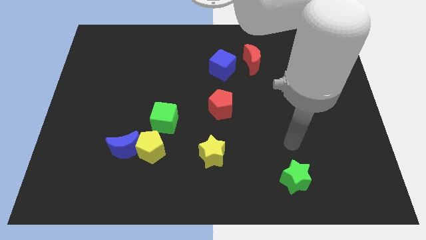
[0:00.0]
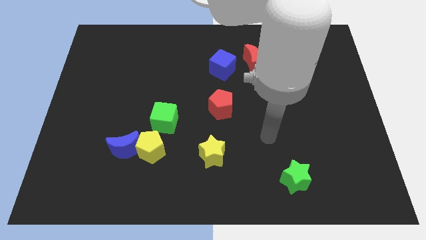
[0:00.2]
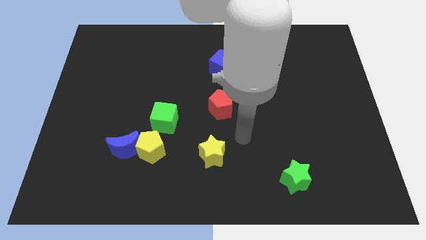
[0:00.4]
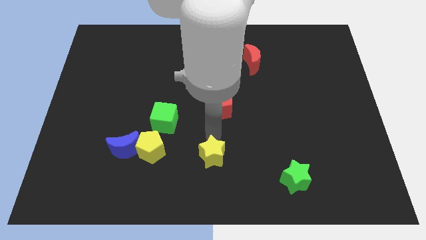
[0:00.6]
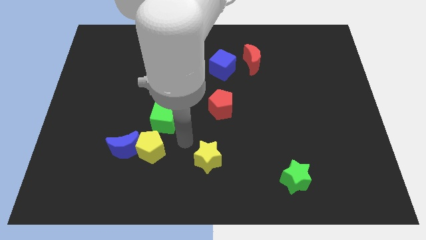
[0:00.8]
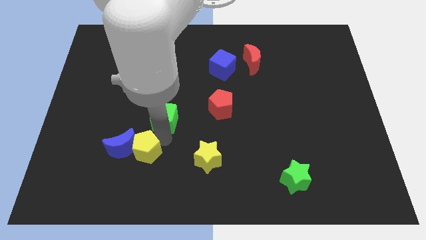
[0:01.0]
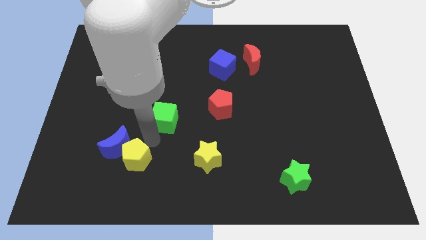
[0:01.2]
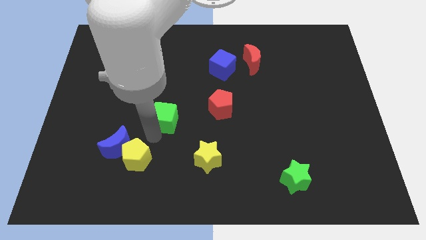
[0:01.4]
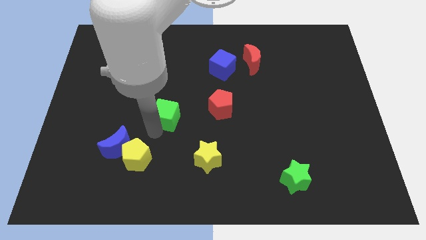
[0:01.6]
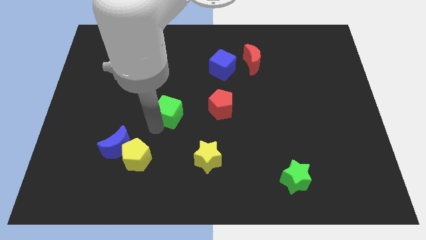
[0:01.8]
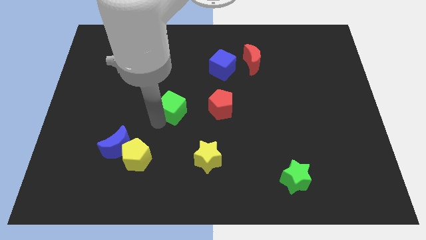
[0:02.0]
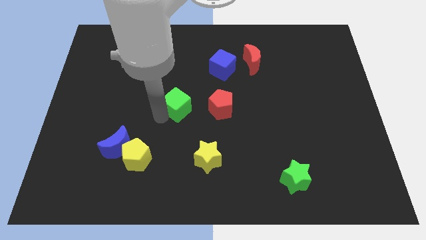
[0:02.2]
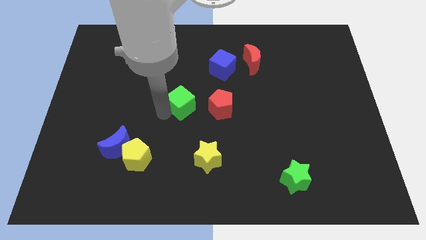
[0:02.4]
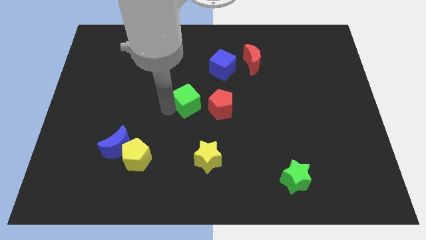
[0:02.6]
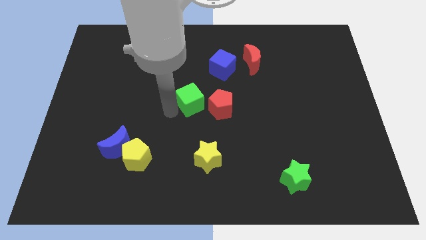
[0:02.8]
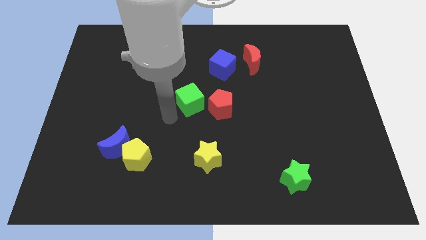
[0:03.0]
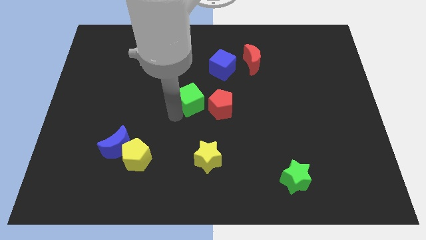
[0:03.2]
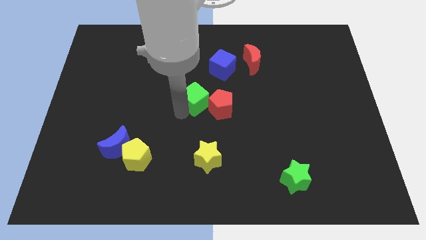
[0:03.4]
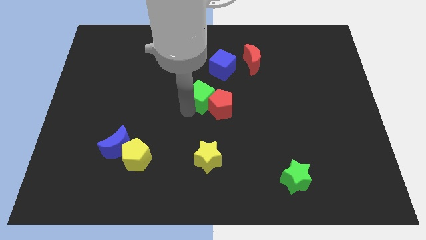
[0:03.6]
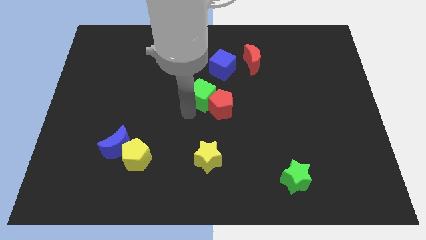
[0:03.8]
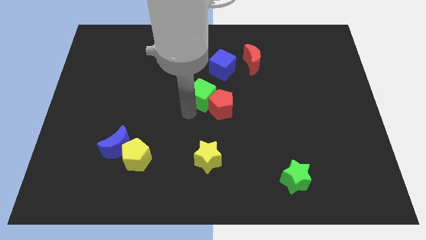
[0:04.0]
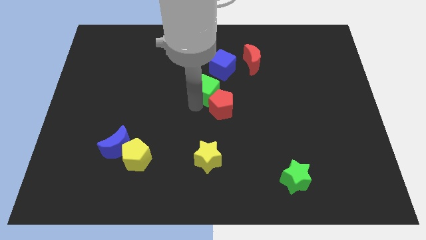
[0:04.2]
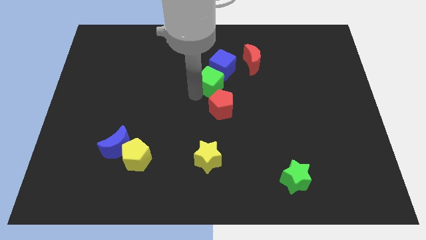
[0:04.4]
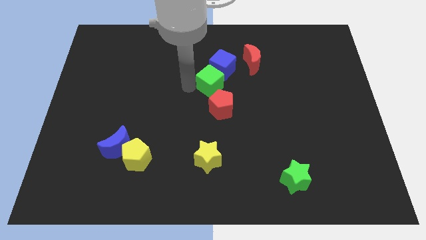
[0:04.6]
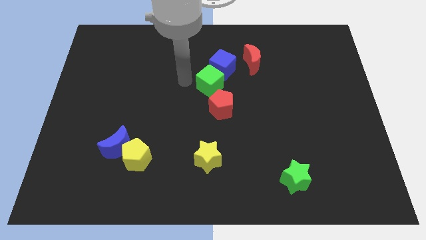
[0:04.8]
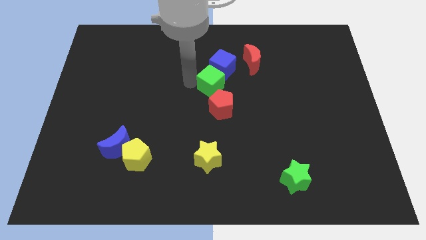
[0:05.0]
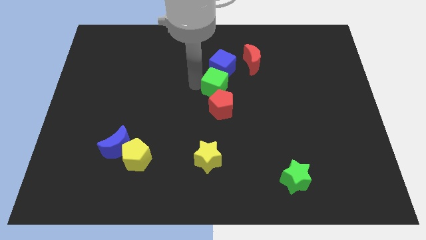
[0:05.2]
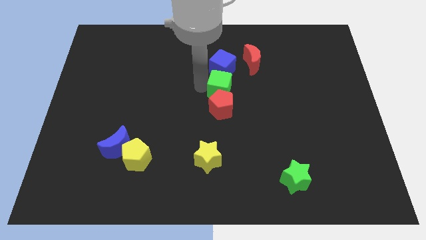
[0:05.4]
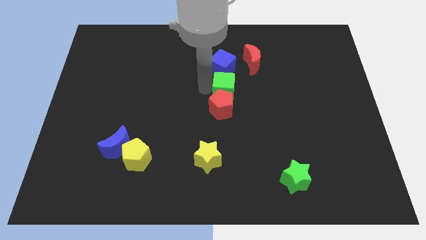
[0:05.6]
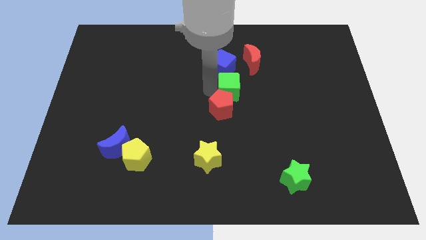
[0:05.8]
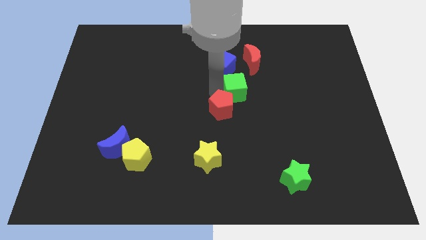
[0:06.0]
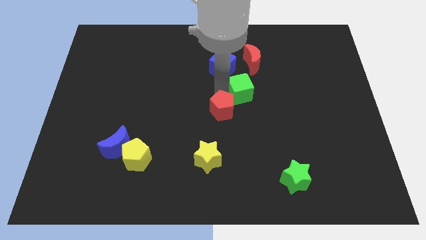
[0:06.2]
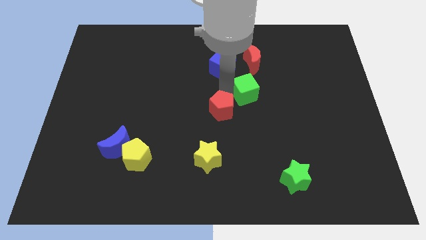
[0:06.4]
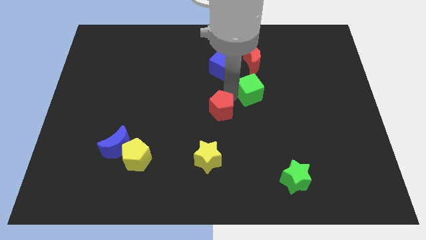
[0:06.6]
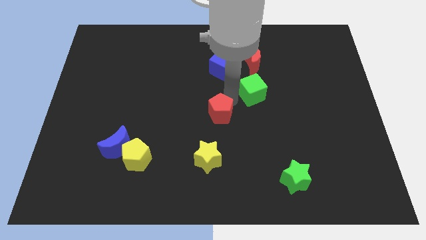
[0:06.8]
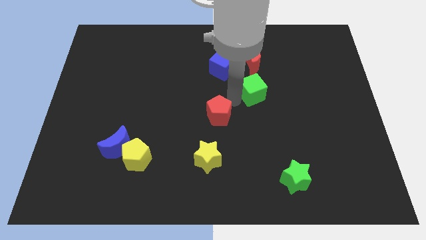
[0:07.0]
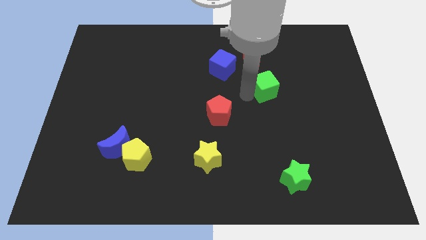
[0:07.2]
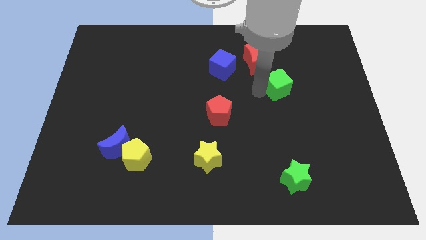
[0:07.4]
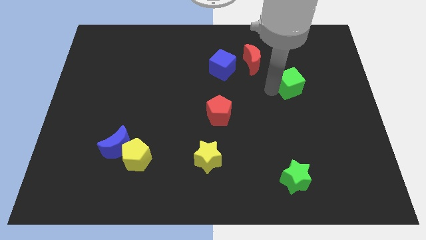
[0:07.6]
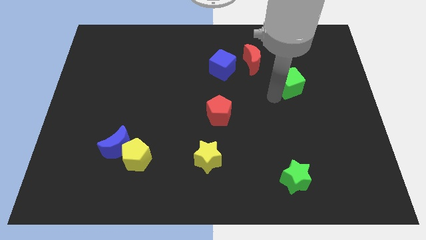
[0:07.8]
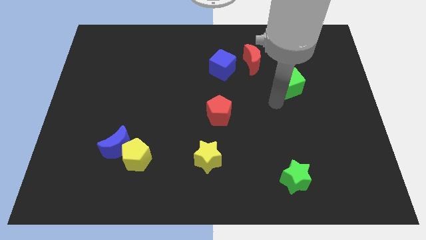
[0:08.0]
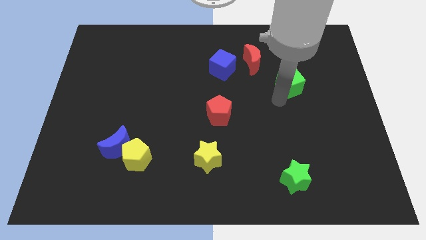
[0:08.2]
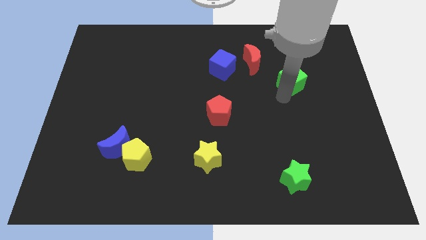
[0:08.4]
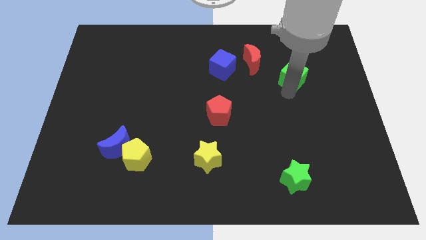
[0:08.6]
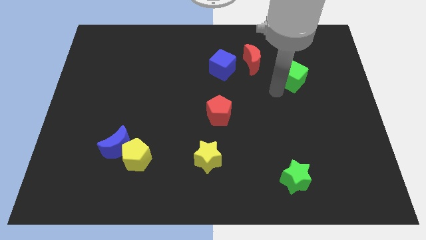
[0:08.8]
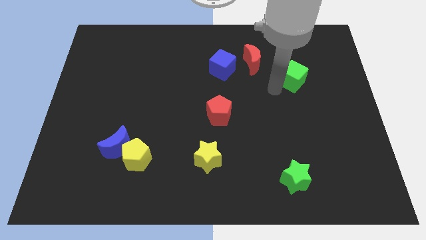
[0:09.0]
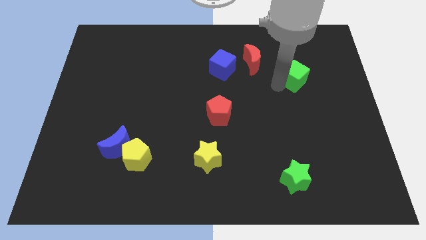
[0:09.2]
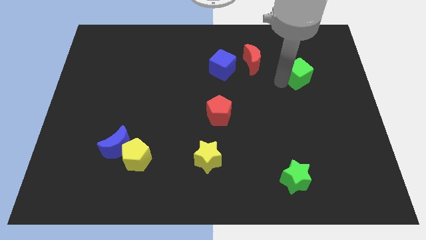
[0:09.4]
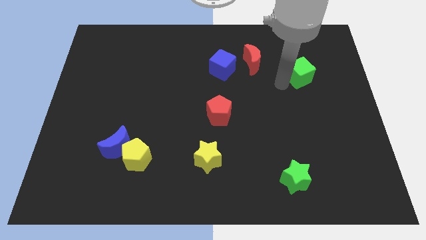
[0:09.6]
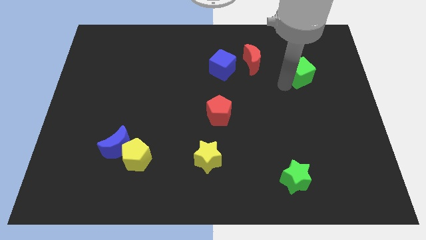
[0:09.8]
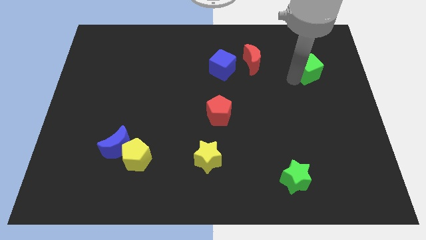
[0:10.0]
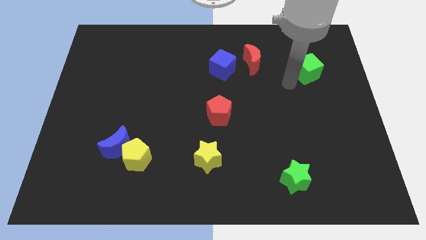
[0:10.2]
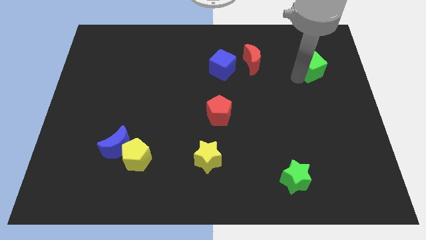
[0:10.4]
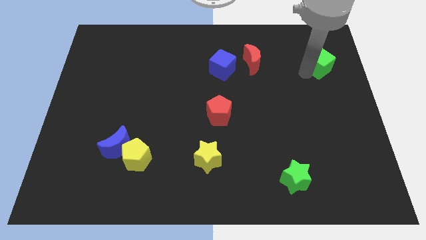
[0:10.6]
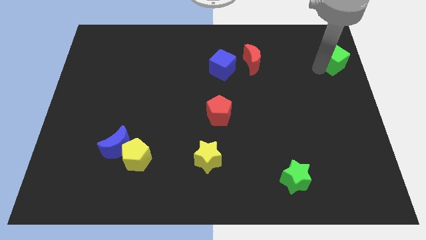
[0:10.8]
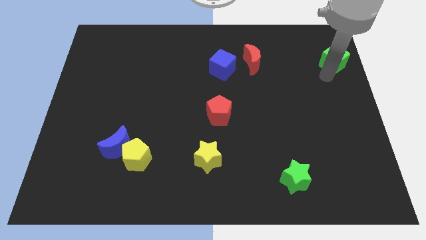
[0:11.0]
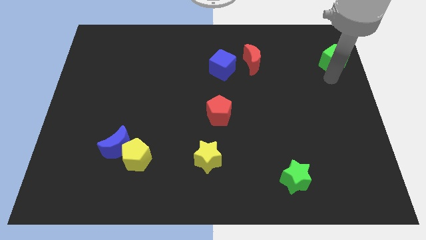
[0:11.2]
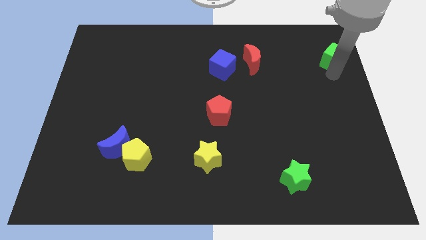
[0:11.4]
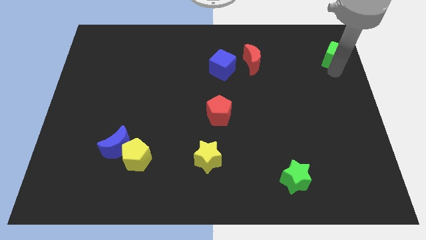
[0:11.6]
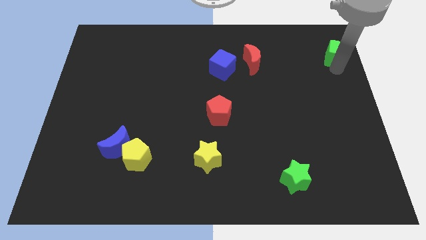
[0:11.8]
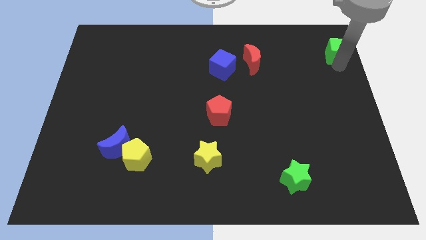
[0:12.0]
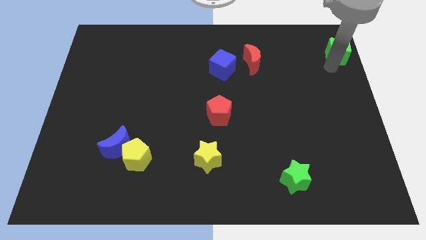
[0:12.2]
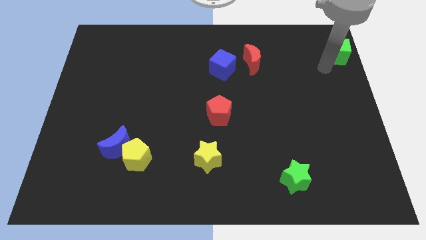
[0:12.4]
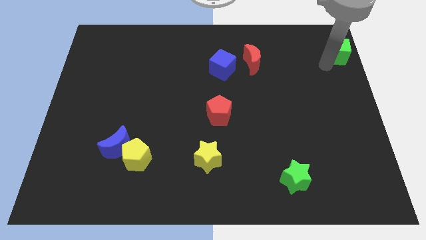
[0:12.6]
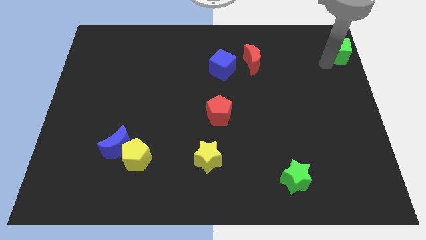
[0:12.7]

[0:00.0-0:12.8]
put the green cube to the top right
